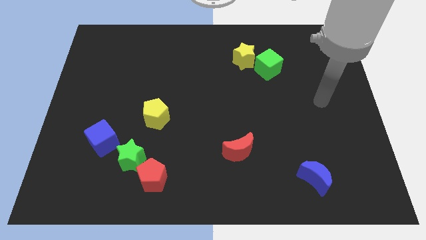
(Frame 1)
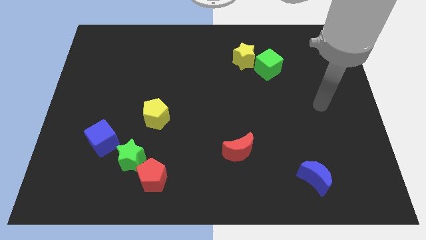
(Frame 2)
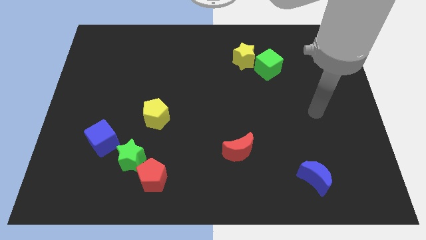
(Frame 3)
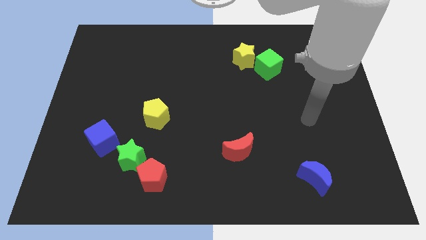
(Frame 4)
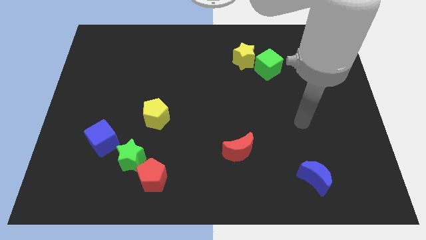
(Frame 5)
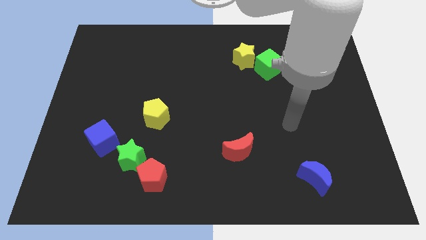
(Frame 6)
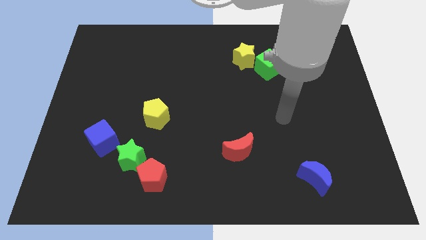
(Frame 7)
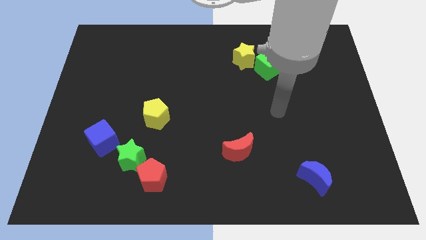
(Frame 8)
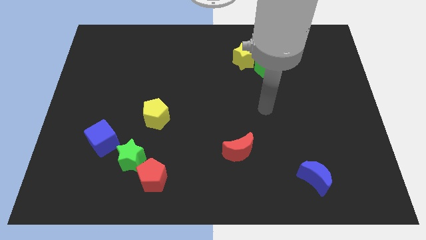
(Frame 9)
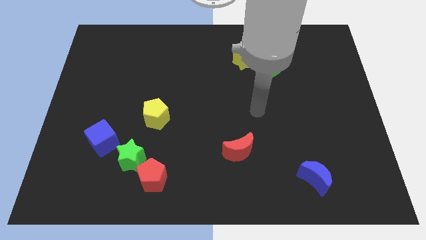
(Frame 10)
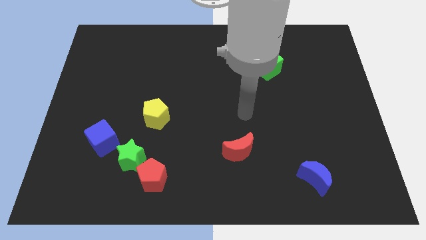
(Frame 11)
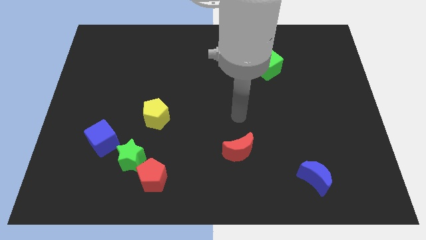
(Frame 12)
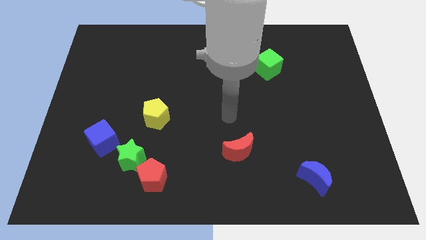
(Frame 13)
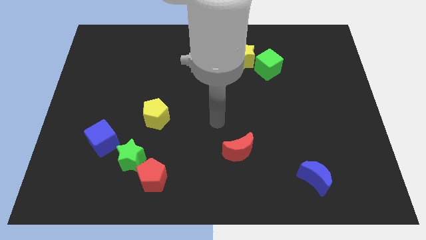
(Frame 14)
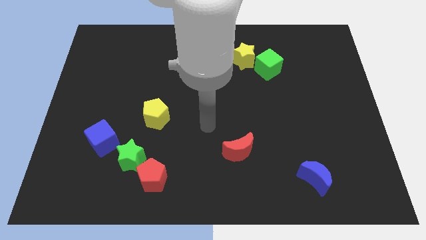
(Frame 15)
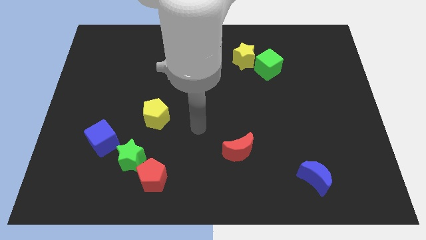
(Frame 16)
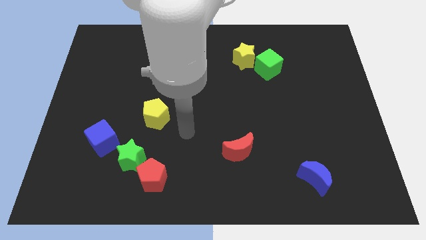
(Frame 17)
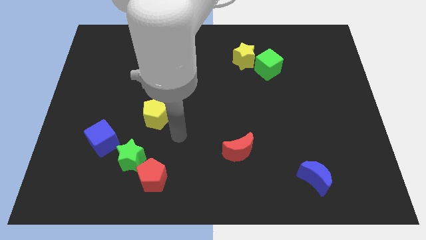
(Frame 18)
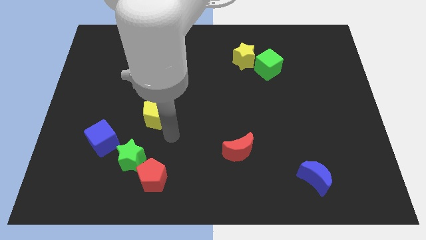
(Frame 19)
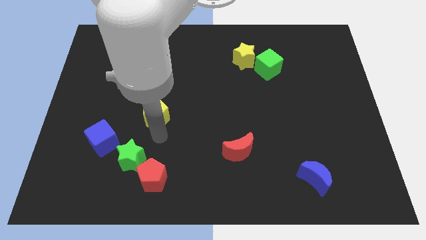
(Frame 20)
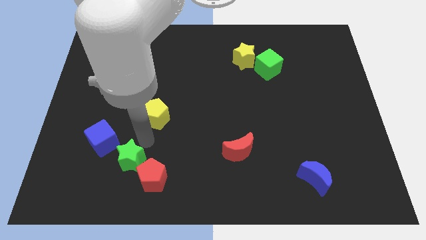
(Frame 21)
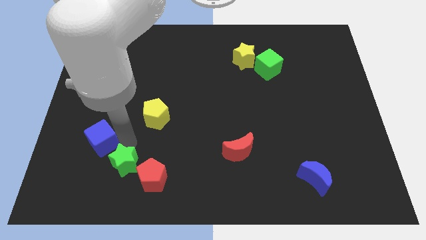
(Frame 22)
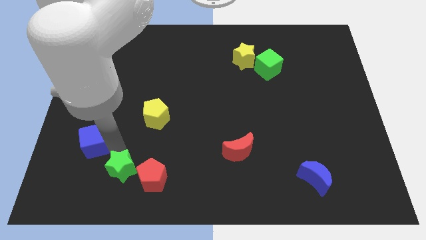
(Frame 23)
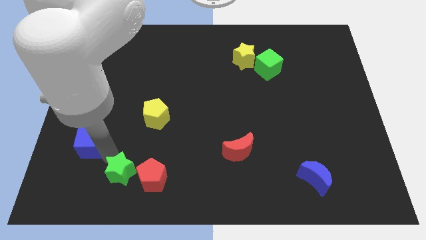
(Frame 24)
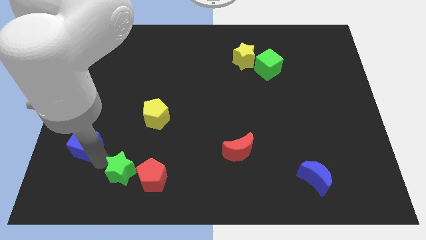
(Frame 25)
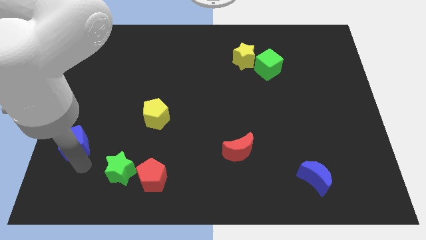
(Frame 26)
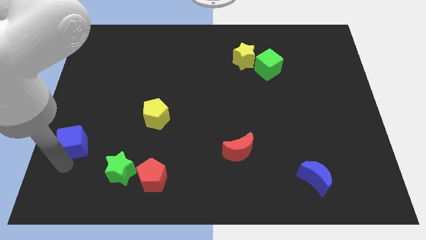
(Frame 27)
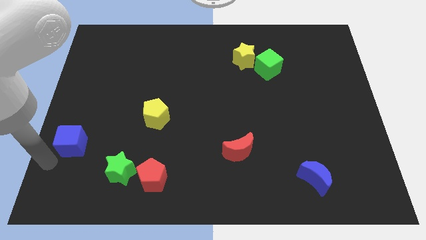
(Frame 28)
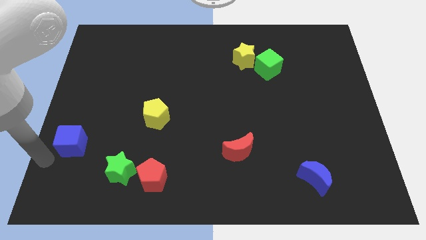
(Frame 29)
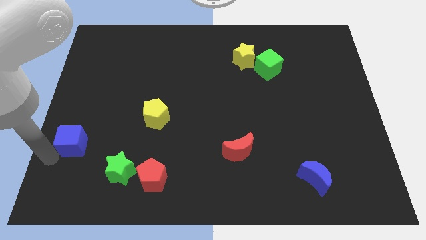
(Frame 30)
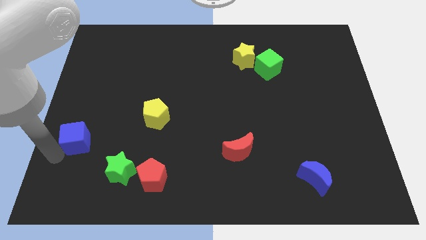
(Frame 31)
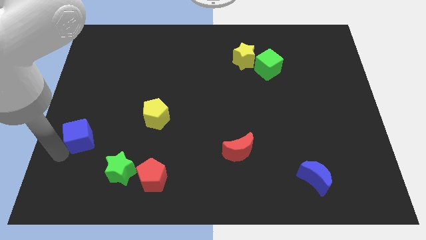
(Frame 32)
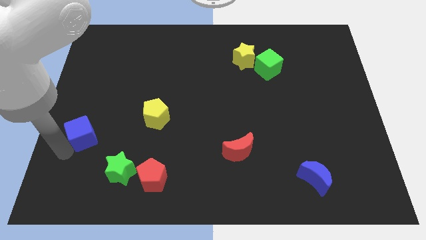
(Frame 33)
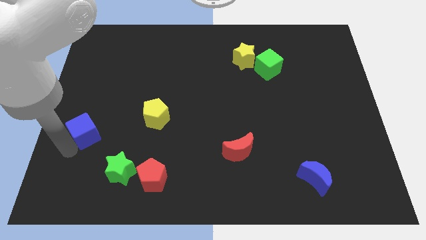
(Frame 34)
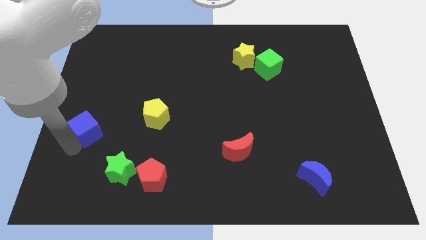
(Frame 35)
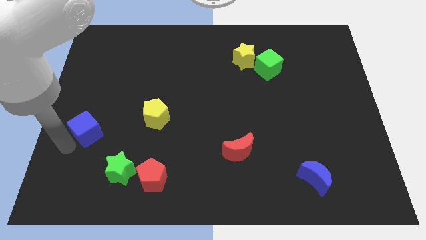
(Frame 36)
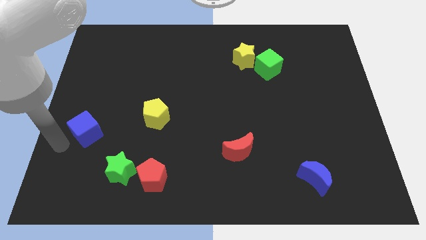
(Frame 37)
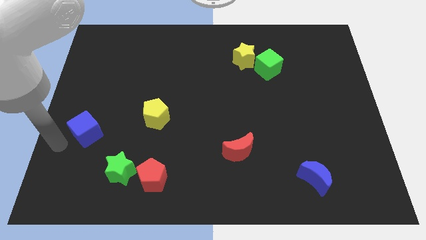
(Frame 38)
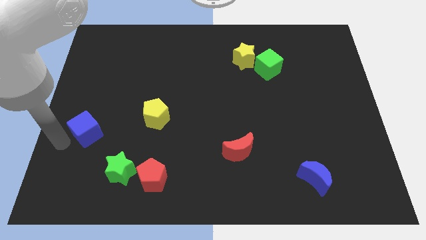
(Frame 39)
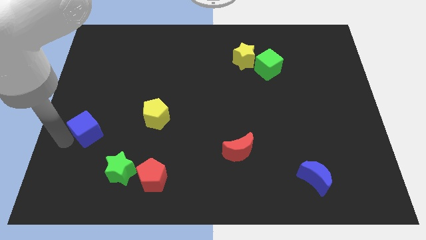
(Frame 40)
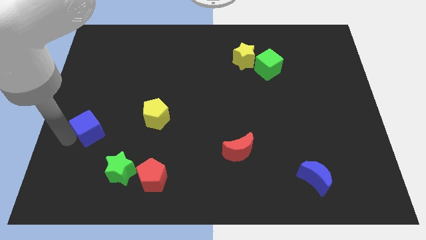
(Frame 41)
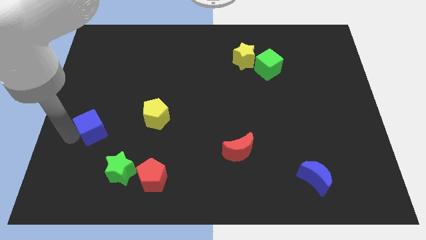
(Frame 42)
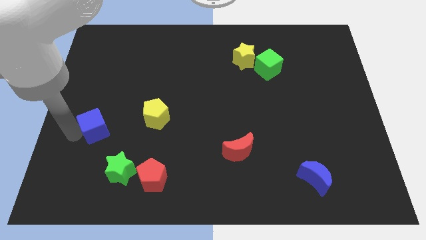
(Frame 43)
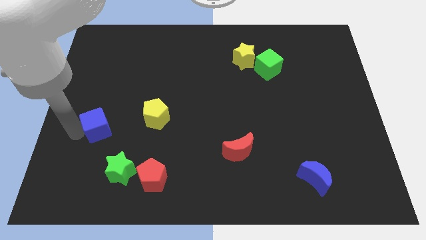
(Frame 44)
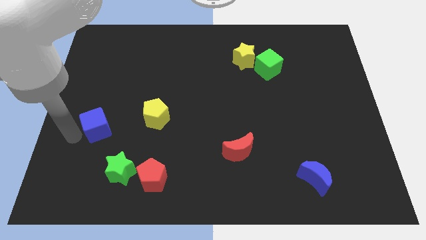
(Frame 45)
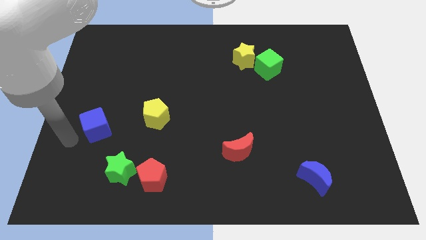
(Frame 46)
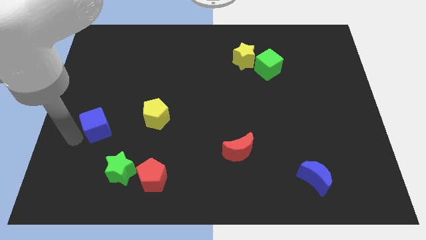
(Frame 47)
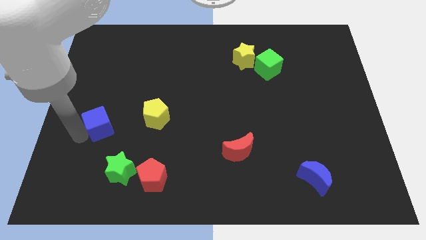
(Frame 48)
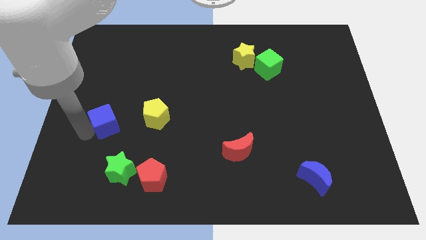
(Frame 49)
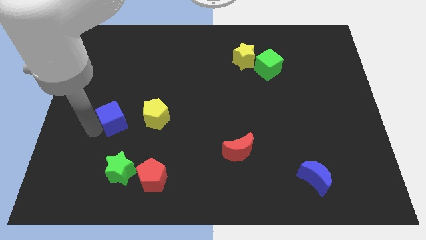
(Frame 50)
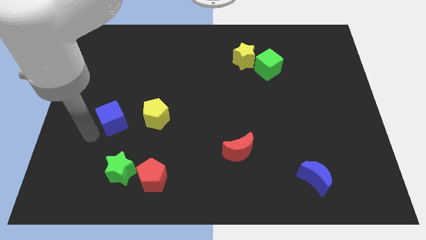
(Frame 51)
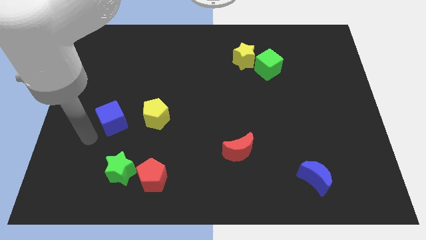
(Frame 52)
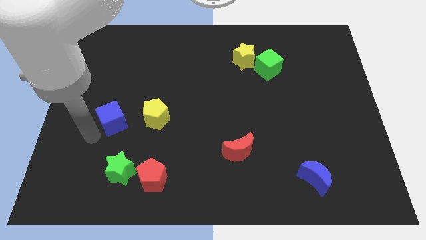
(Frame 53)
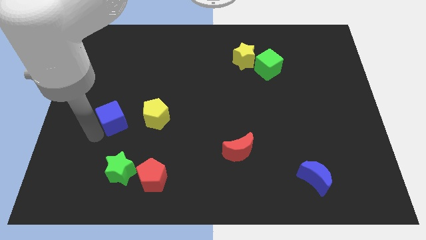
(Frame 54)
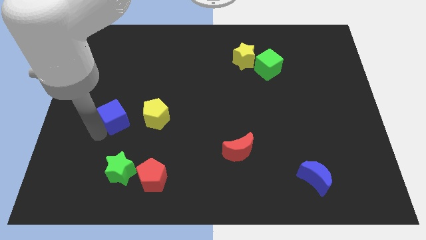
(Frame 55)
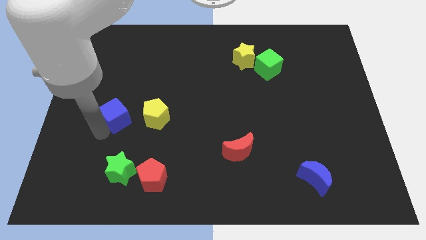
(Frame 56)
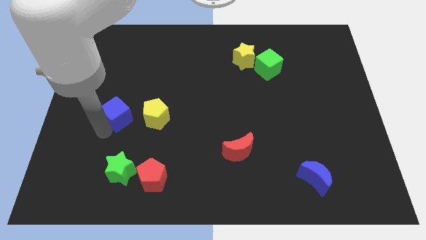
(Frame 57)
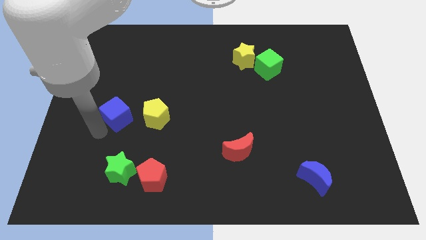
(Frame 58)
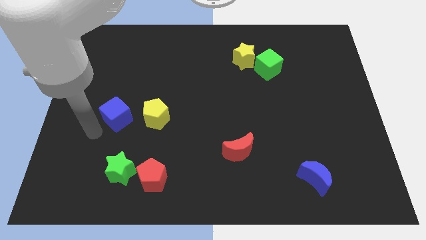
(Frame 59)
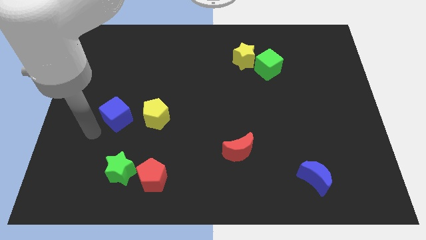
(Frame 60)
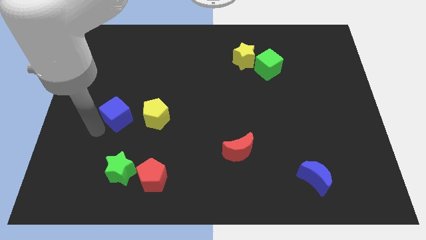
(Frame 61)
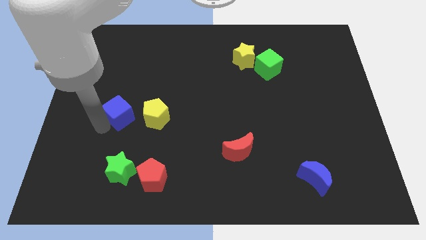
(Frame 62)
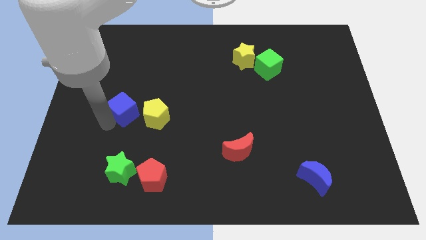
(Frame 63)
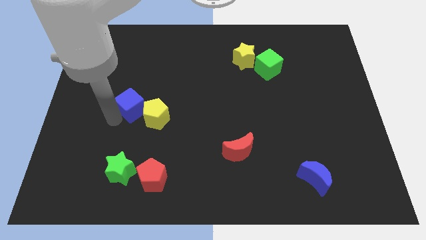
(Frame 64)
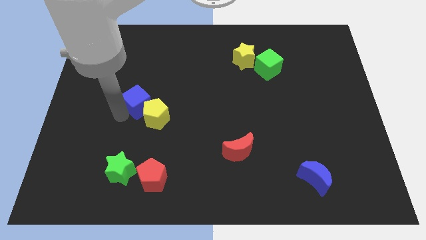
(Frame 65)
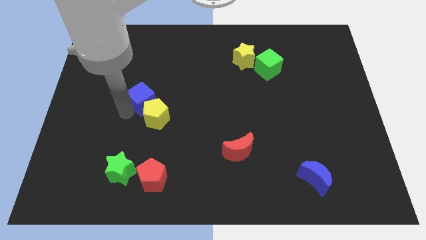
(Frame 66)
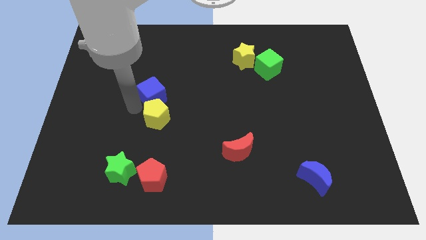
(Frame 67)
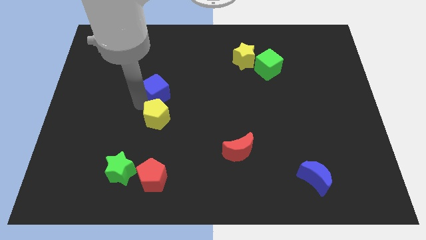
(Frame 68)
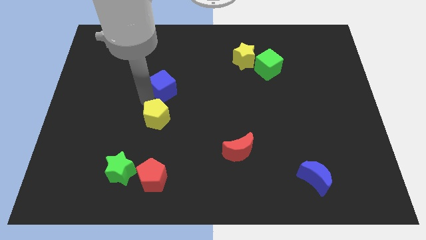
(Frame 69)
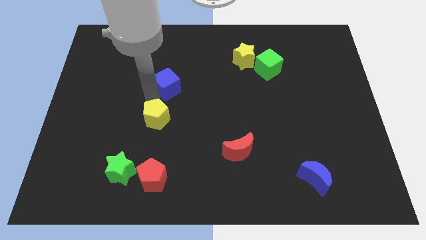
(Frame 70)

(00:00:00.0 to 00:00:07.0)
push the blue cube diagonally up and to the right

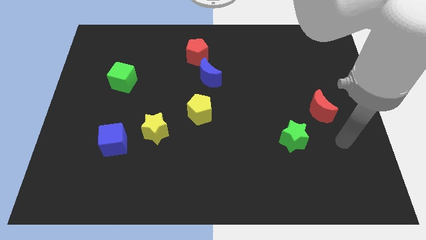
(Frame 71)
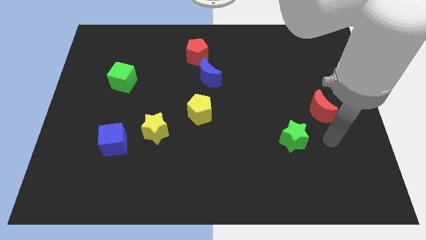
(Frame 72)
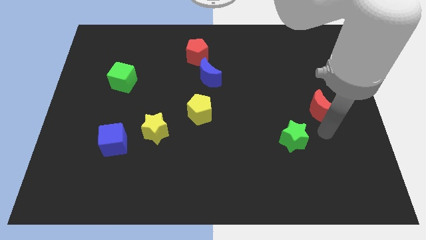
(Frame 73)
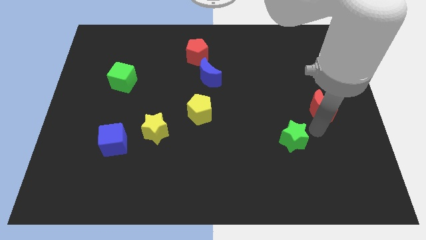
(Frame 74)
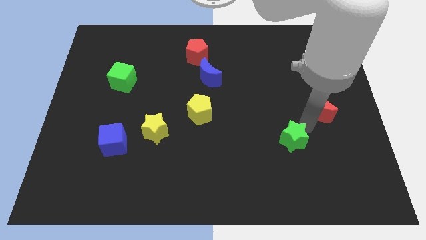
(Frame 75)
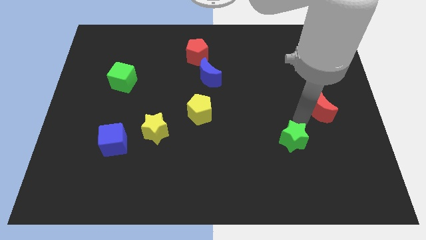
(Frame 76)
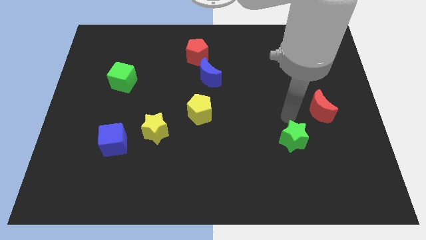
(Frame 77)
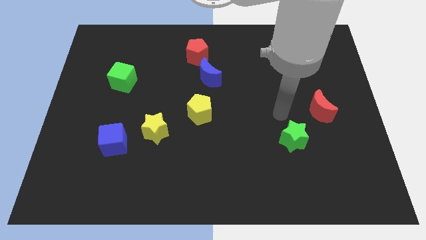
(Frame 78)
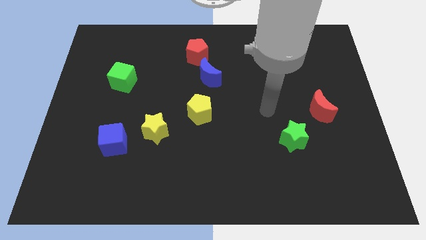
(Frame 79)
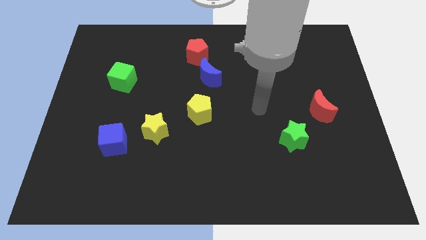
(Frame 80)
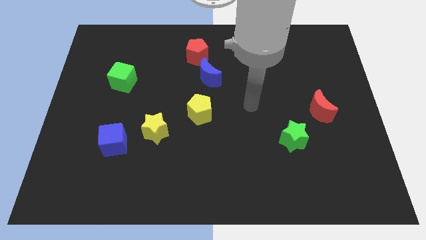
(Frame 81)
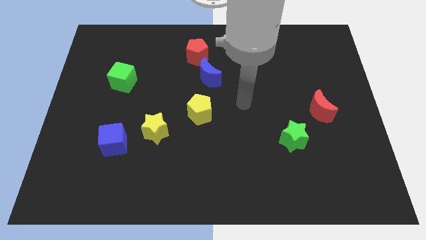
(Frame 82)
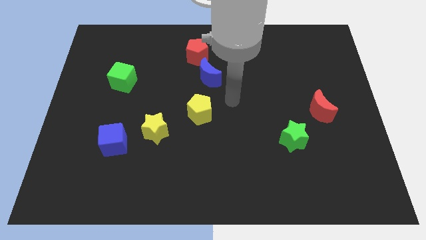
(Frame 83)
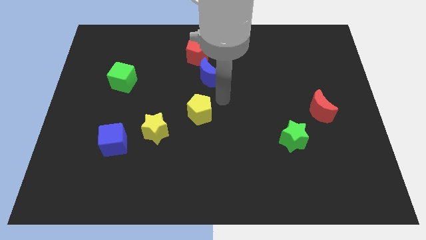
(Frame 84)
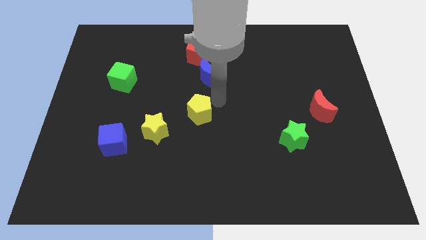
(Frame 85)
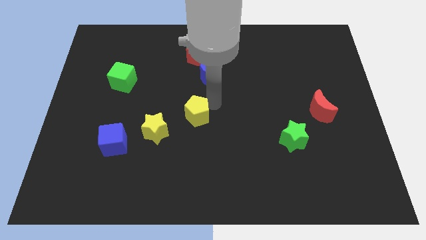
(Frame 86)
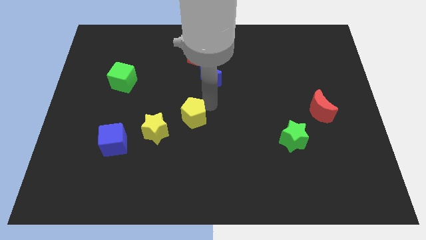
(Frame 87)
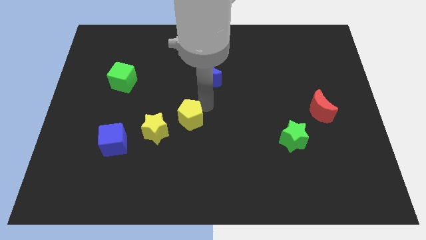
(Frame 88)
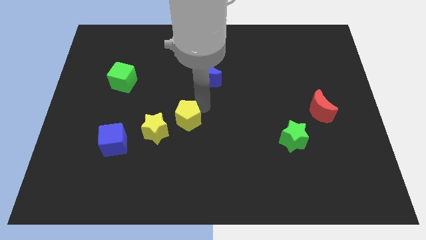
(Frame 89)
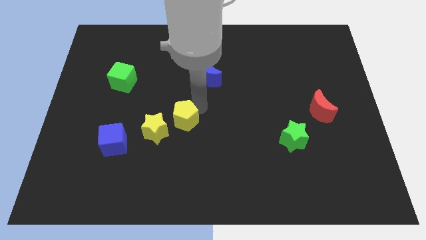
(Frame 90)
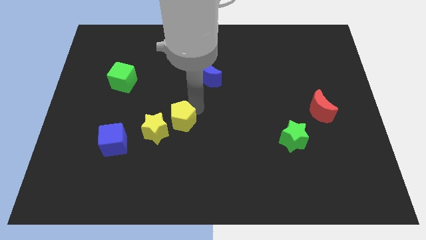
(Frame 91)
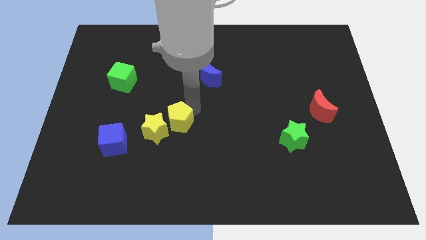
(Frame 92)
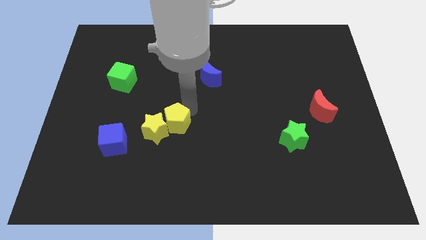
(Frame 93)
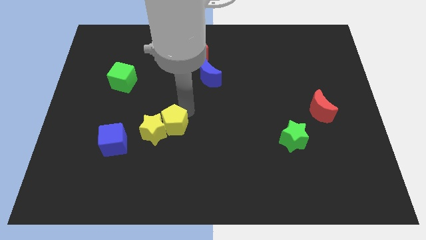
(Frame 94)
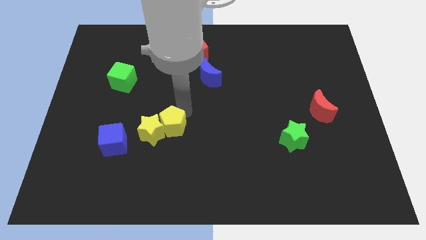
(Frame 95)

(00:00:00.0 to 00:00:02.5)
slightly push the yellow pentagon down and then left
